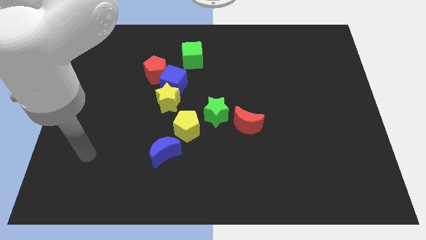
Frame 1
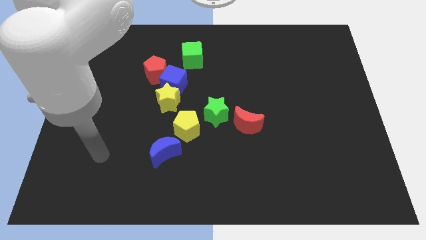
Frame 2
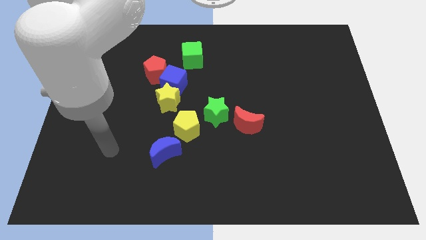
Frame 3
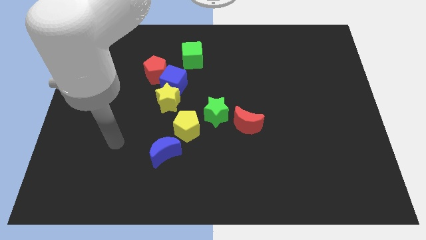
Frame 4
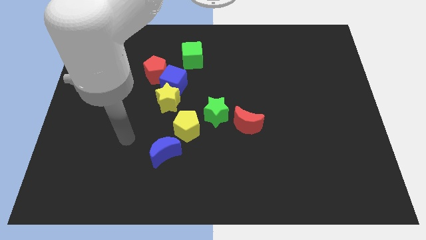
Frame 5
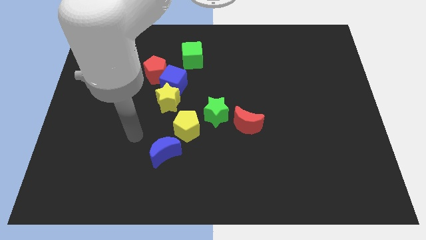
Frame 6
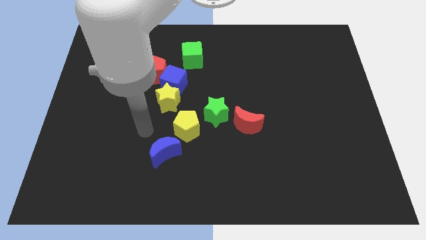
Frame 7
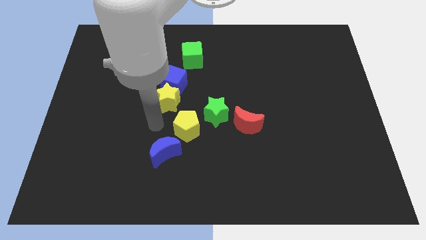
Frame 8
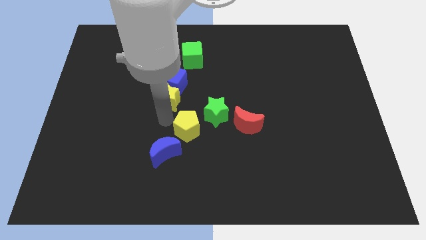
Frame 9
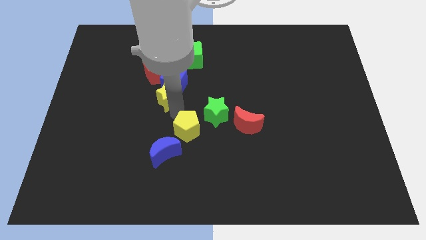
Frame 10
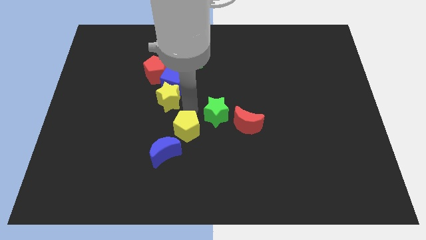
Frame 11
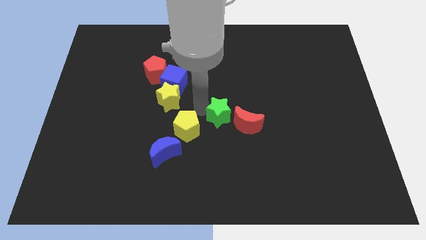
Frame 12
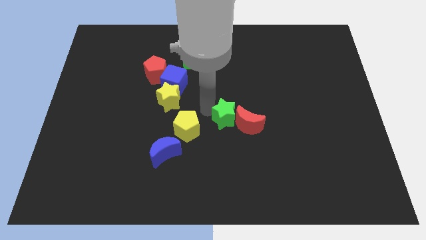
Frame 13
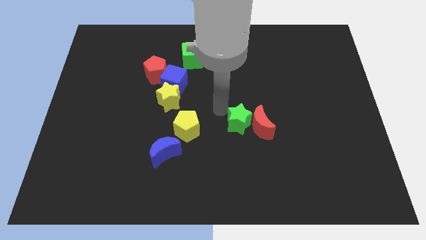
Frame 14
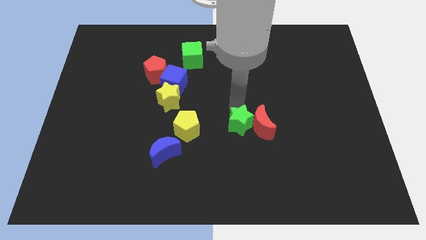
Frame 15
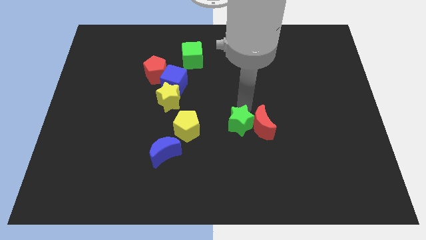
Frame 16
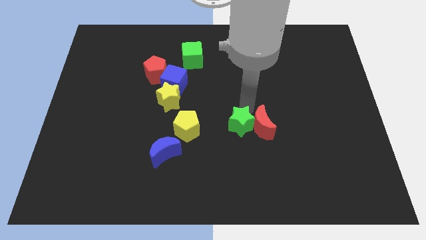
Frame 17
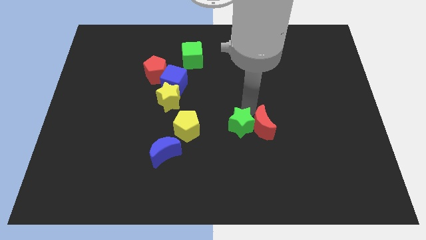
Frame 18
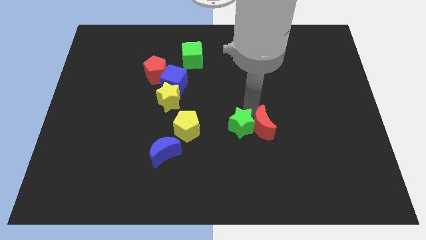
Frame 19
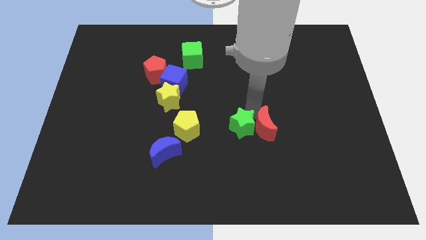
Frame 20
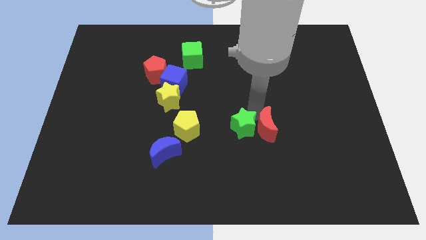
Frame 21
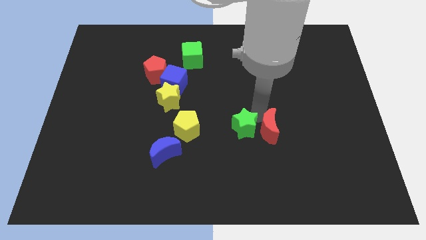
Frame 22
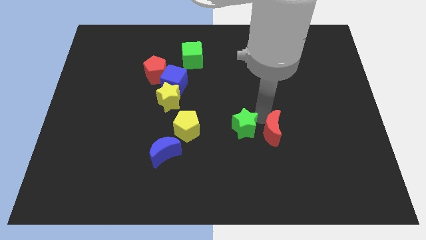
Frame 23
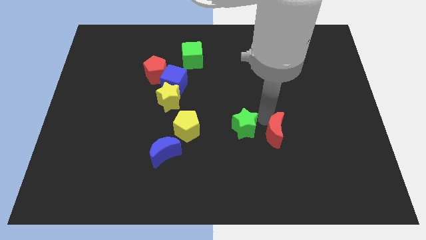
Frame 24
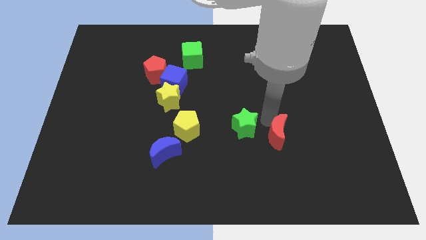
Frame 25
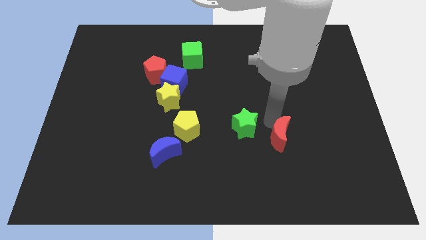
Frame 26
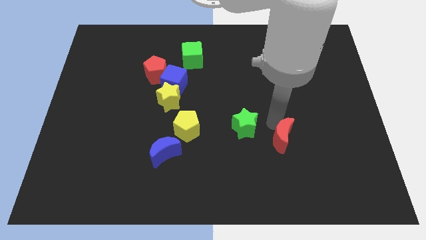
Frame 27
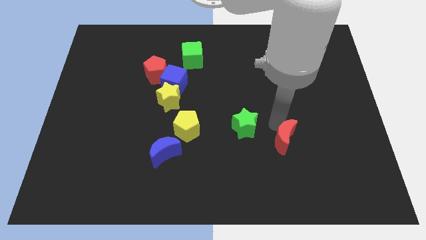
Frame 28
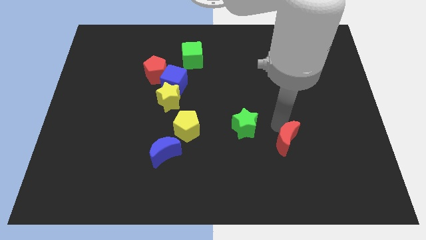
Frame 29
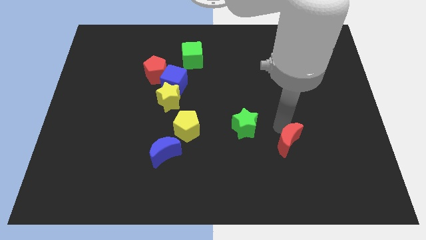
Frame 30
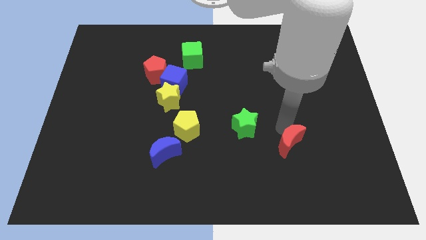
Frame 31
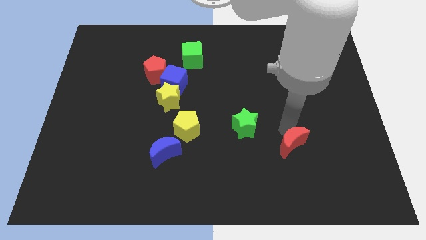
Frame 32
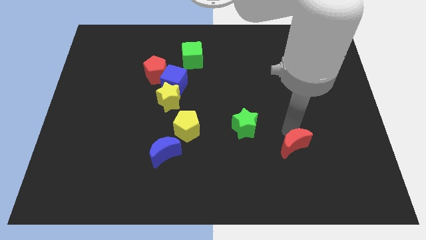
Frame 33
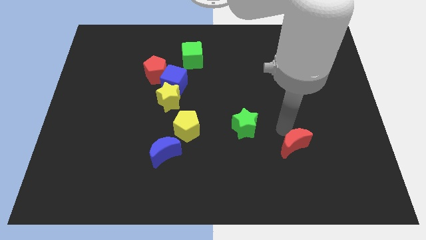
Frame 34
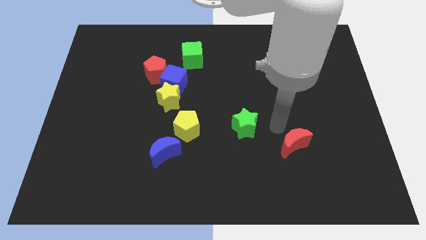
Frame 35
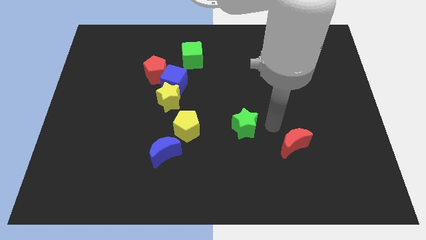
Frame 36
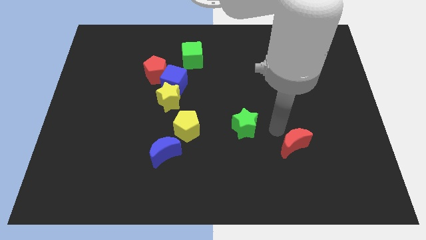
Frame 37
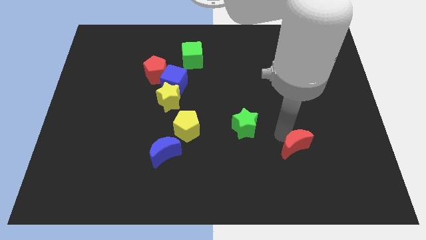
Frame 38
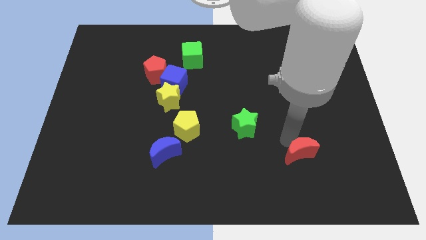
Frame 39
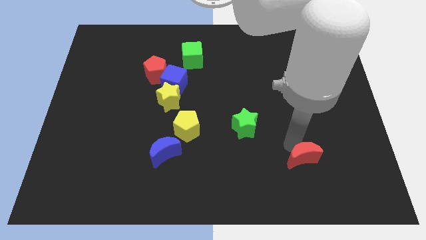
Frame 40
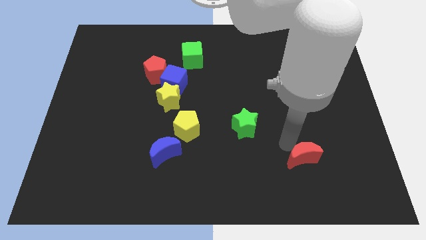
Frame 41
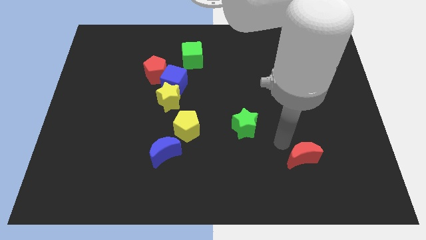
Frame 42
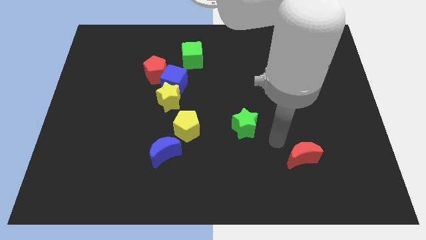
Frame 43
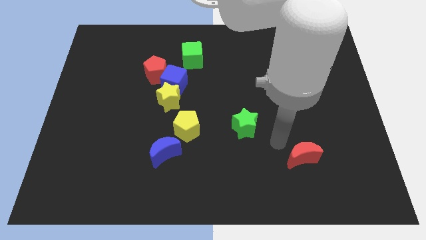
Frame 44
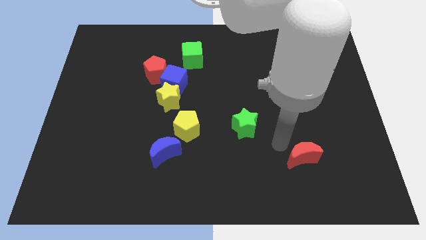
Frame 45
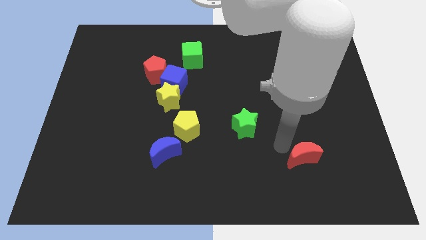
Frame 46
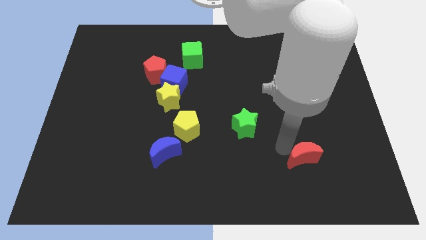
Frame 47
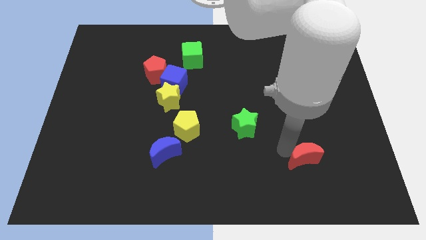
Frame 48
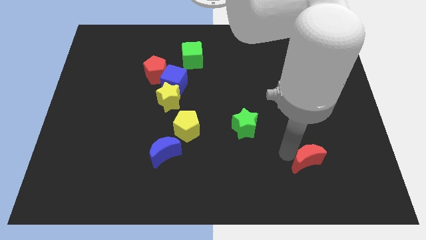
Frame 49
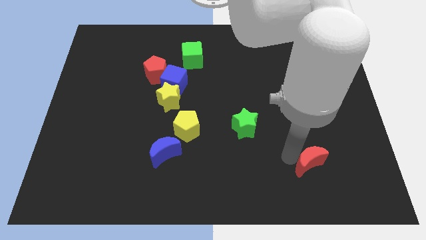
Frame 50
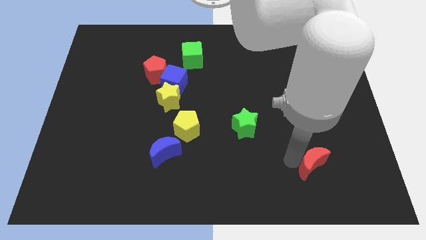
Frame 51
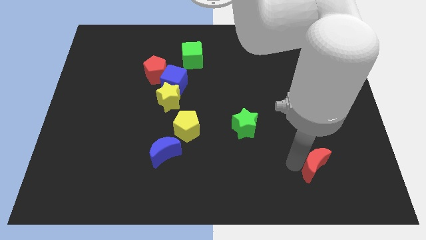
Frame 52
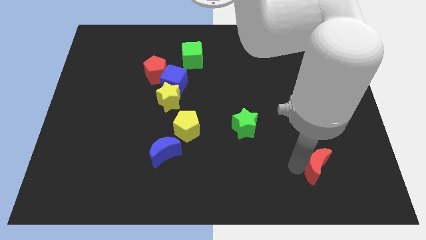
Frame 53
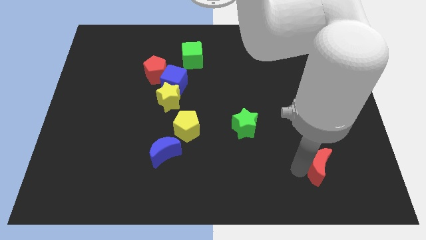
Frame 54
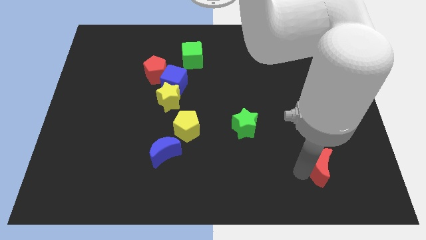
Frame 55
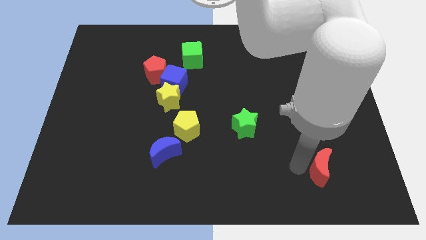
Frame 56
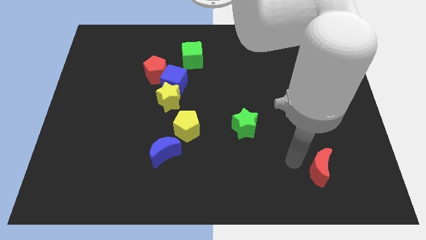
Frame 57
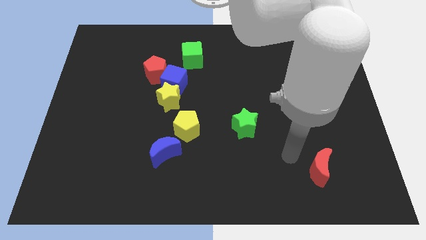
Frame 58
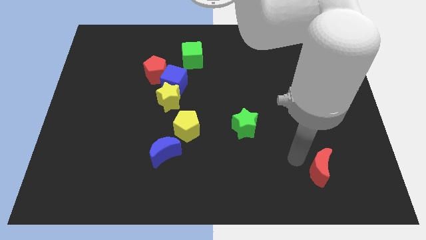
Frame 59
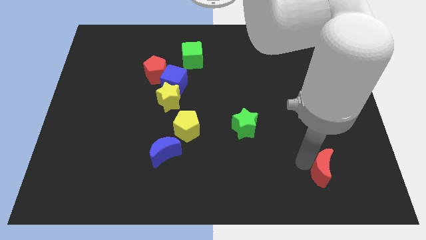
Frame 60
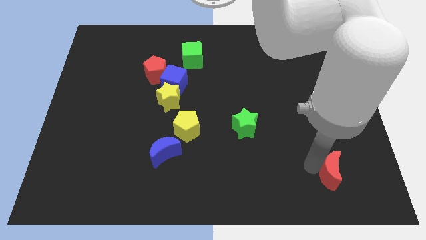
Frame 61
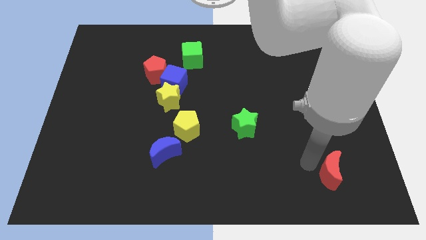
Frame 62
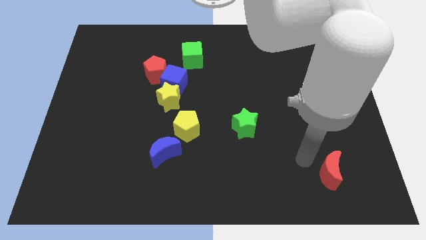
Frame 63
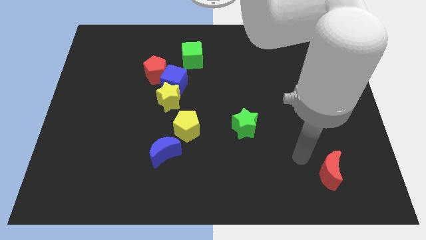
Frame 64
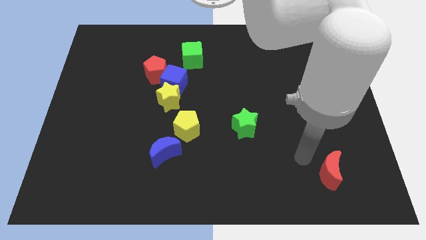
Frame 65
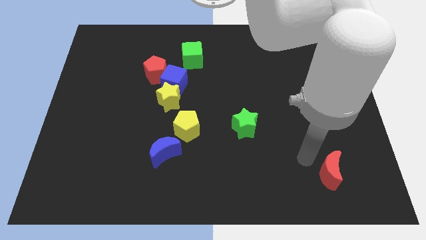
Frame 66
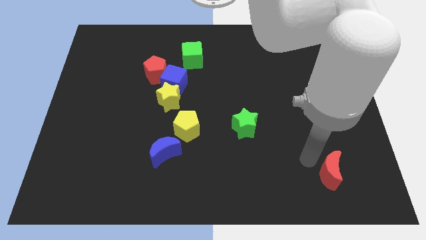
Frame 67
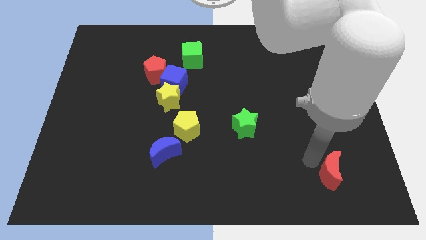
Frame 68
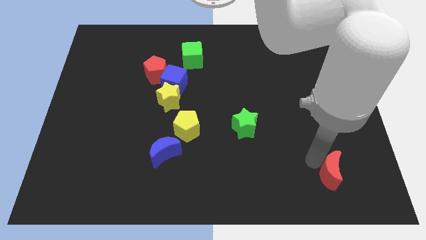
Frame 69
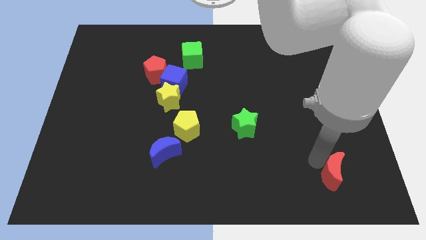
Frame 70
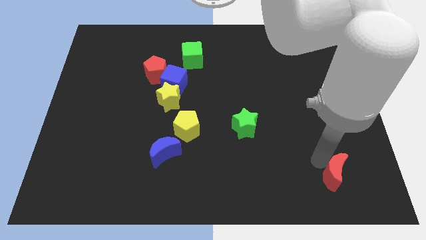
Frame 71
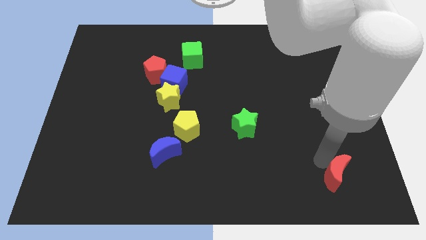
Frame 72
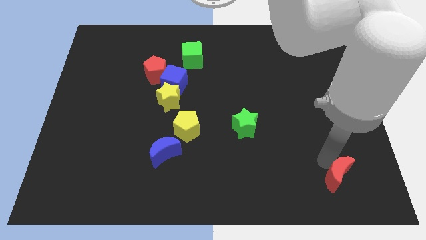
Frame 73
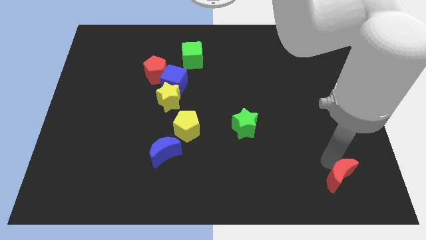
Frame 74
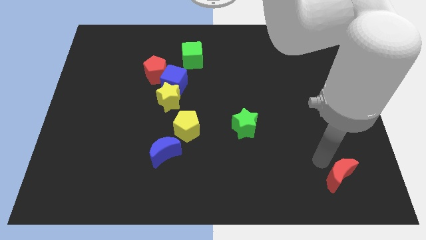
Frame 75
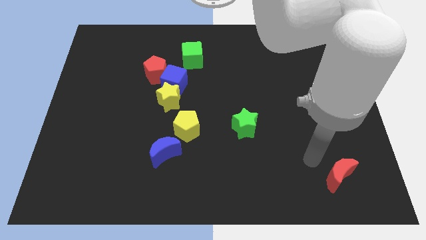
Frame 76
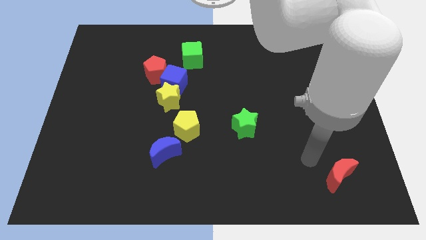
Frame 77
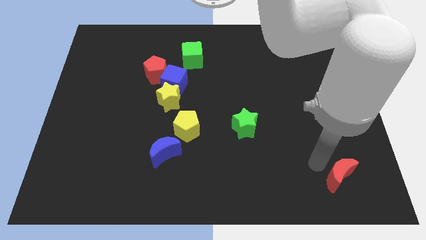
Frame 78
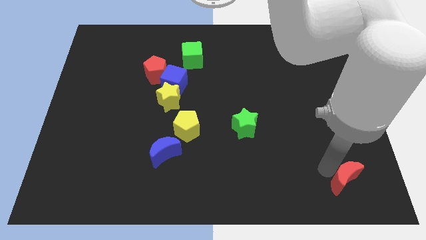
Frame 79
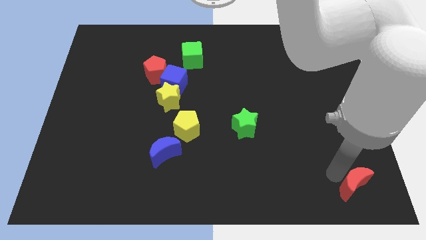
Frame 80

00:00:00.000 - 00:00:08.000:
push the red moon to the bottom right corner
